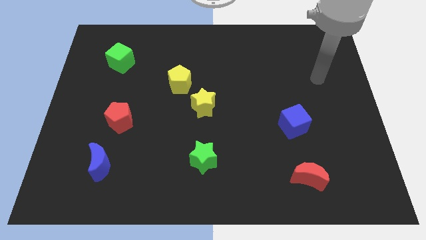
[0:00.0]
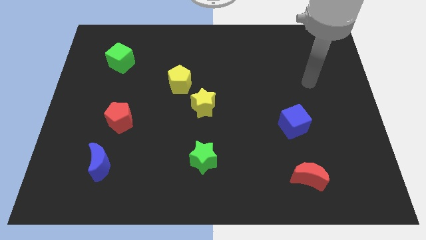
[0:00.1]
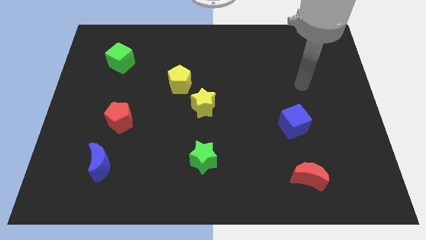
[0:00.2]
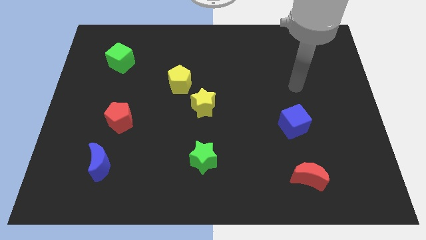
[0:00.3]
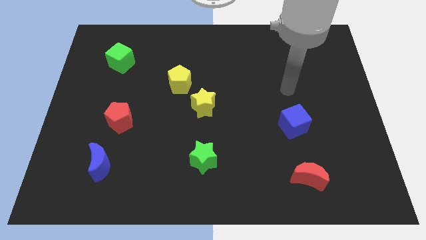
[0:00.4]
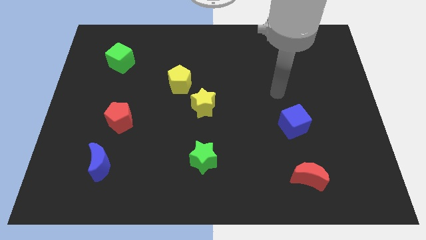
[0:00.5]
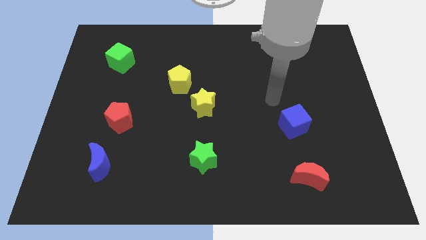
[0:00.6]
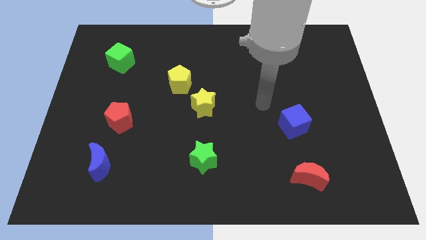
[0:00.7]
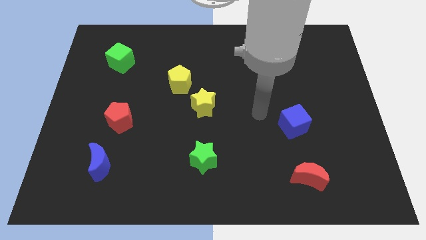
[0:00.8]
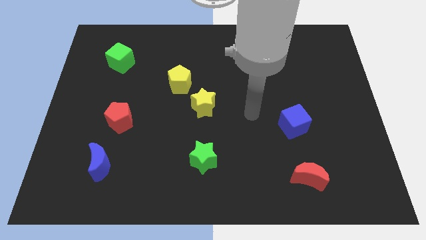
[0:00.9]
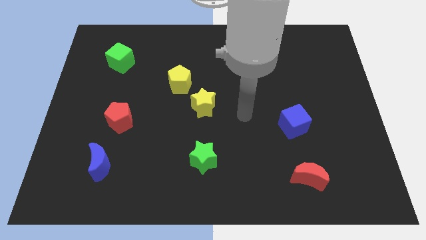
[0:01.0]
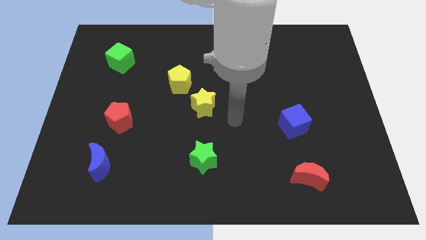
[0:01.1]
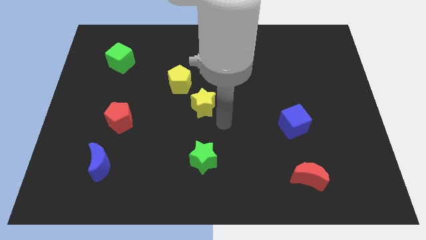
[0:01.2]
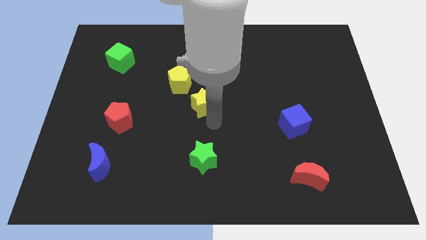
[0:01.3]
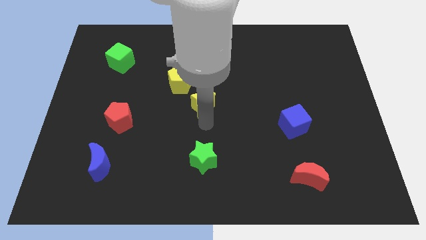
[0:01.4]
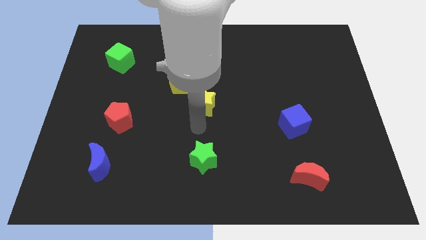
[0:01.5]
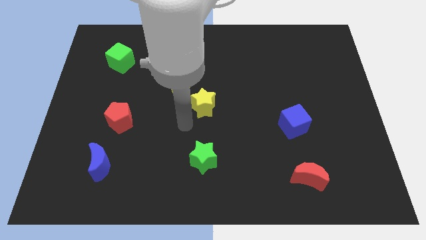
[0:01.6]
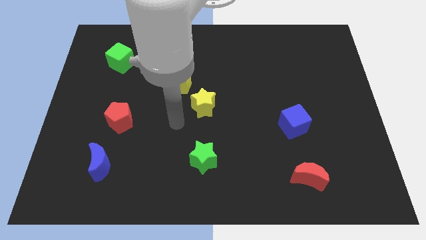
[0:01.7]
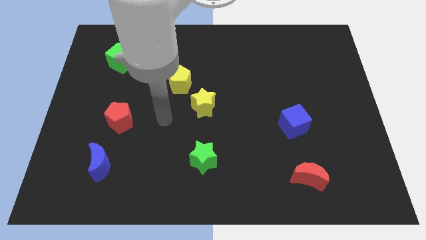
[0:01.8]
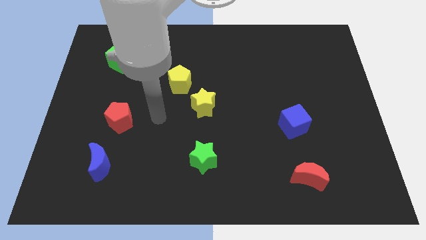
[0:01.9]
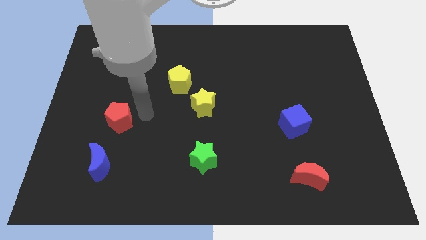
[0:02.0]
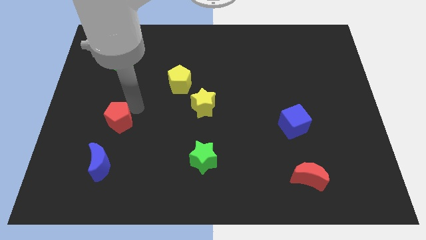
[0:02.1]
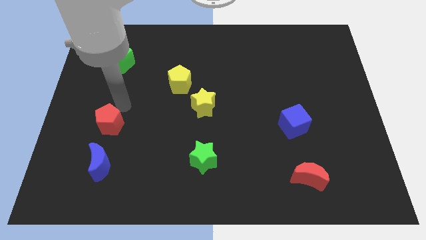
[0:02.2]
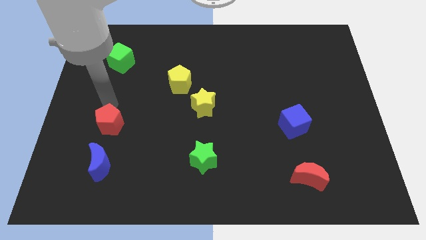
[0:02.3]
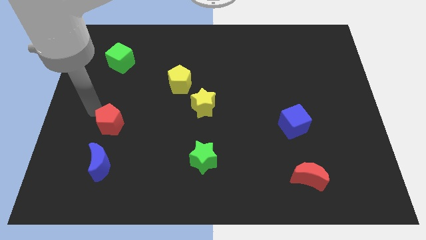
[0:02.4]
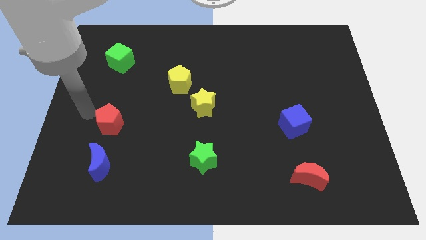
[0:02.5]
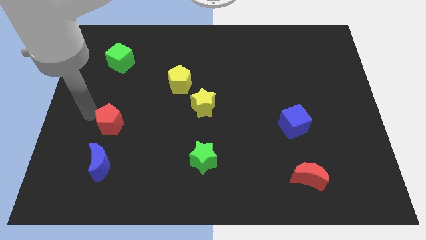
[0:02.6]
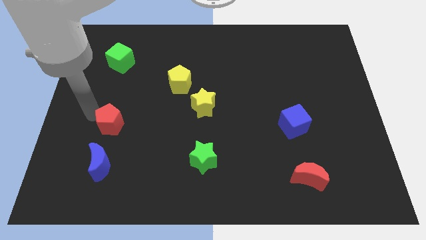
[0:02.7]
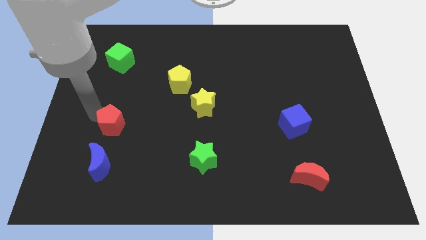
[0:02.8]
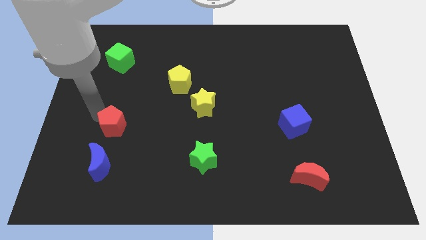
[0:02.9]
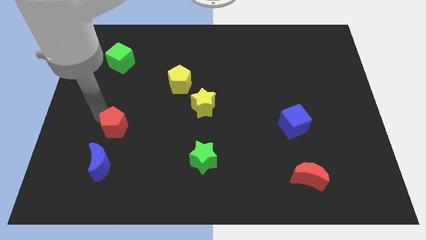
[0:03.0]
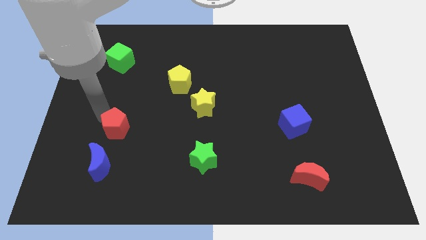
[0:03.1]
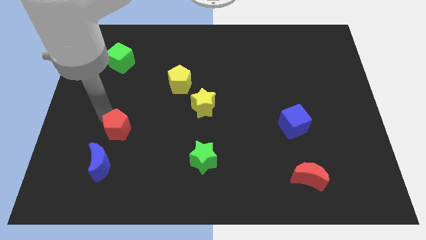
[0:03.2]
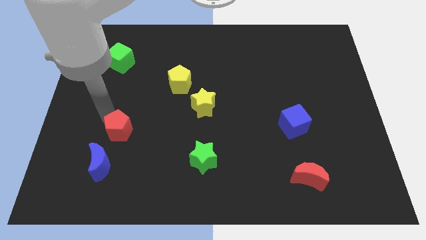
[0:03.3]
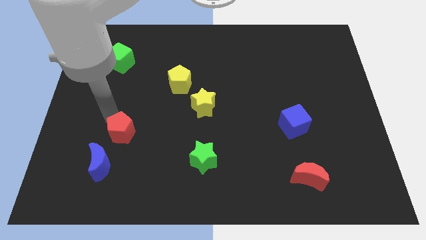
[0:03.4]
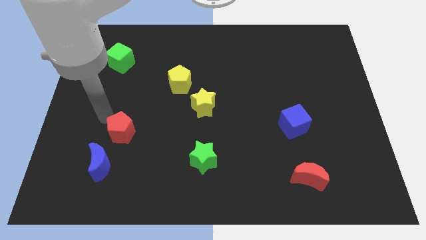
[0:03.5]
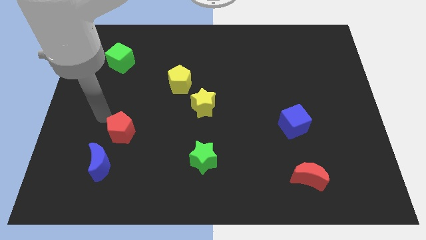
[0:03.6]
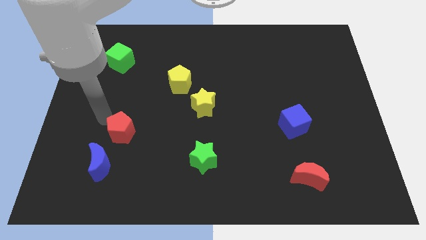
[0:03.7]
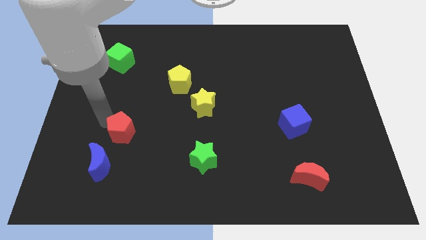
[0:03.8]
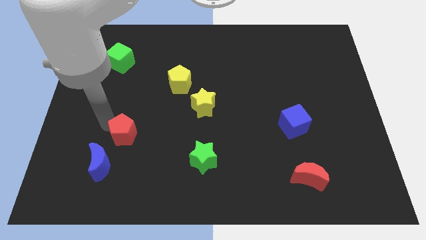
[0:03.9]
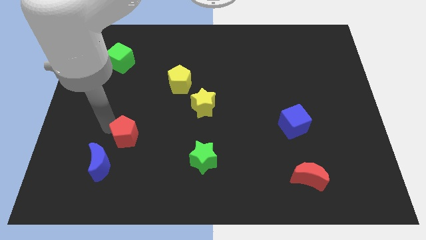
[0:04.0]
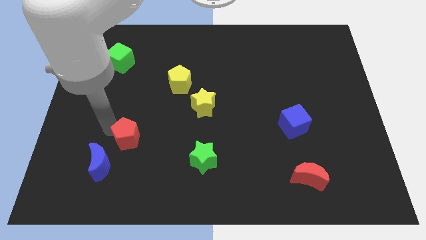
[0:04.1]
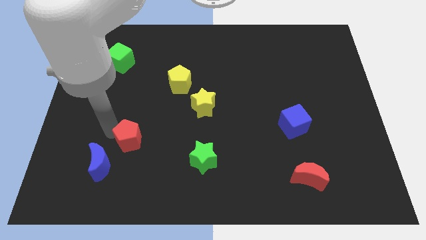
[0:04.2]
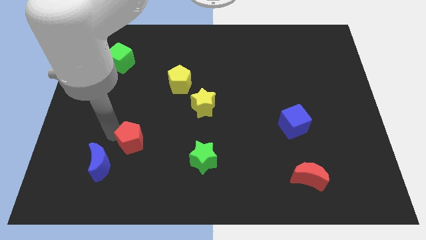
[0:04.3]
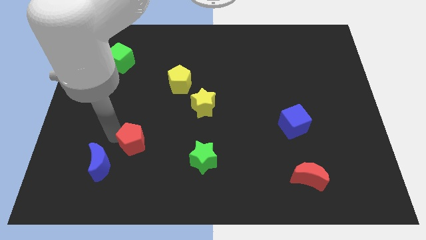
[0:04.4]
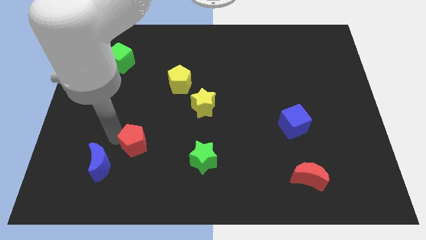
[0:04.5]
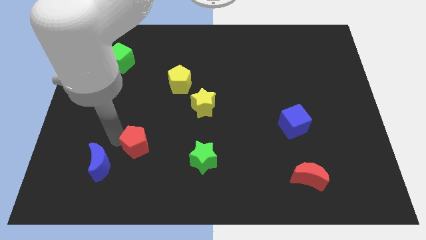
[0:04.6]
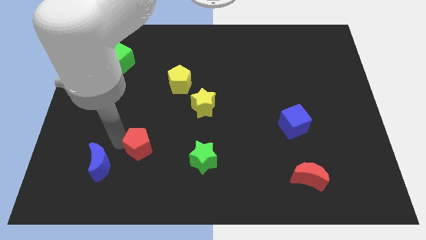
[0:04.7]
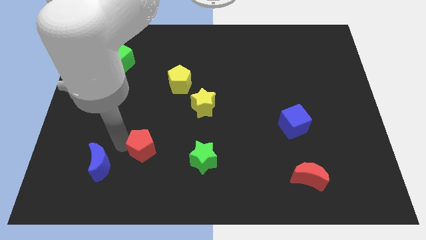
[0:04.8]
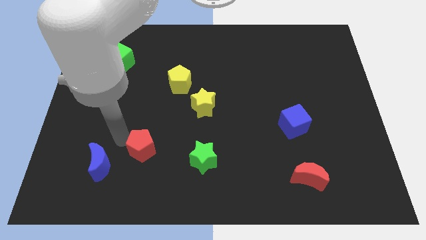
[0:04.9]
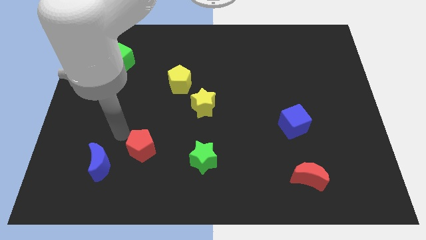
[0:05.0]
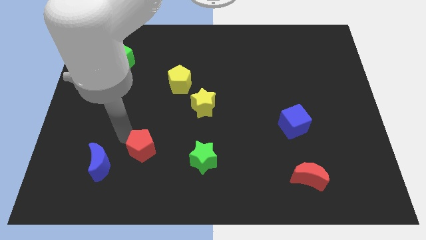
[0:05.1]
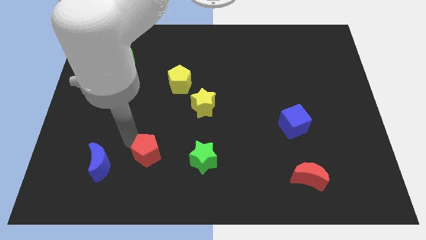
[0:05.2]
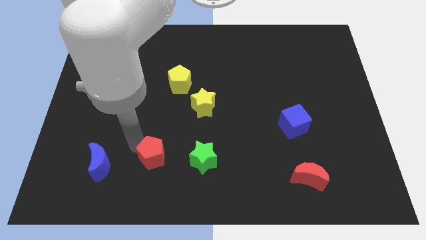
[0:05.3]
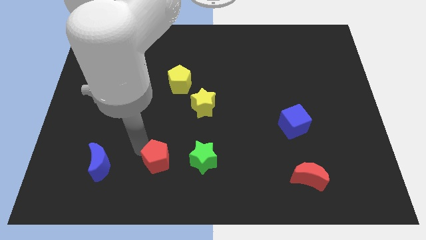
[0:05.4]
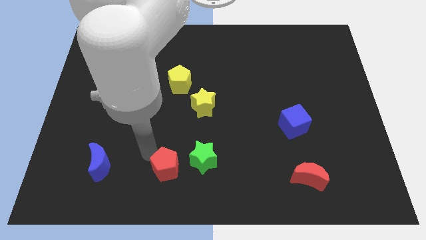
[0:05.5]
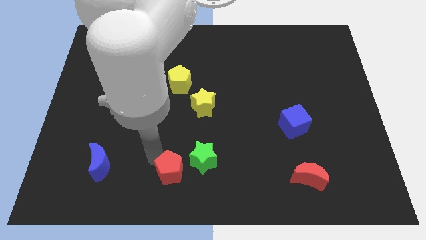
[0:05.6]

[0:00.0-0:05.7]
move the red pentagon to the bottom
